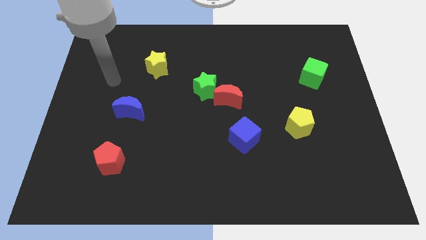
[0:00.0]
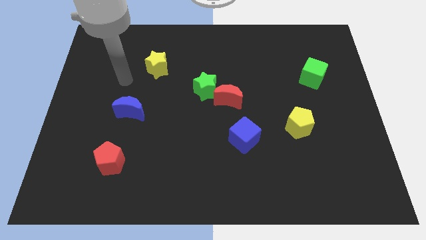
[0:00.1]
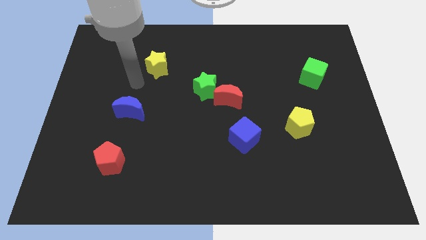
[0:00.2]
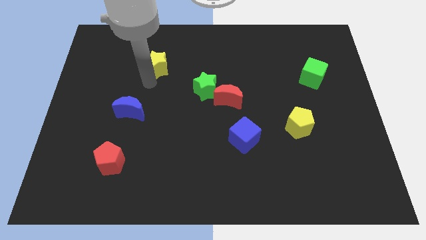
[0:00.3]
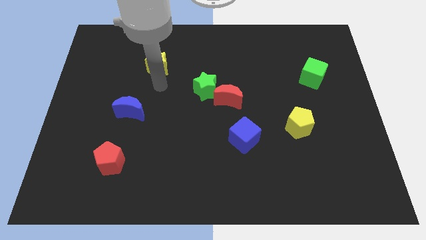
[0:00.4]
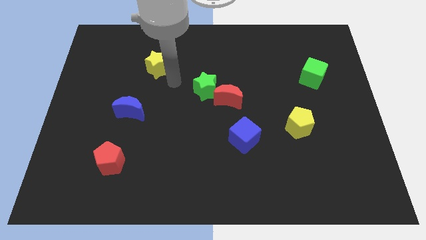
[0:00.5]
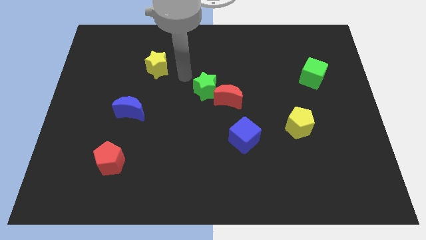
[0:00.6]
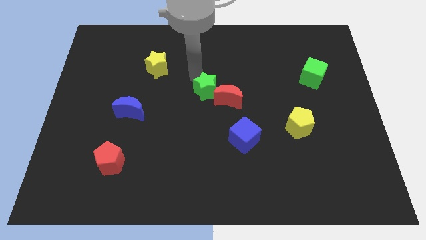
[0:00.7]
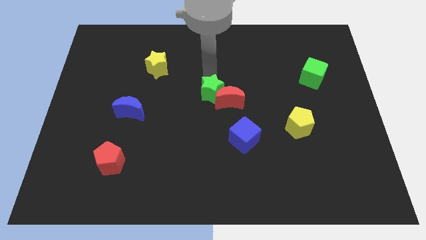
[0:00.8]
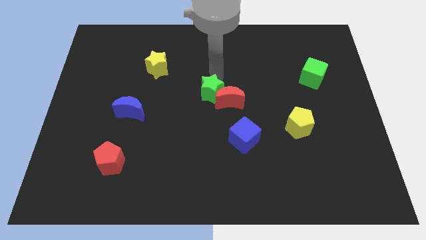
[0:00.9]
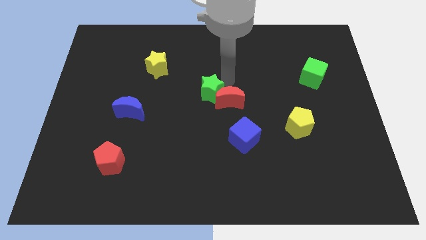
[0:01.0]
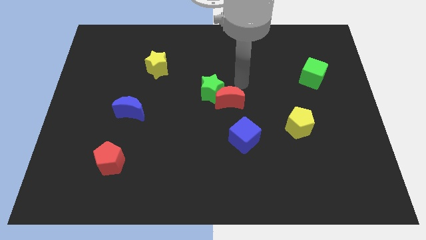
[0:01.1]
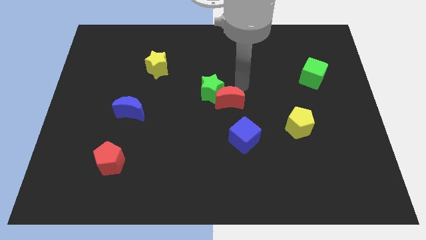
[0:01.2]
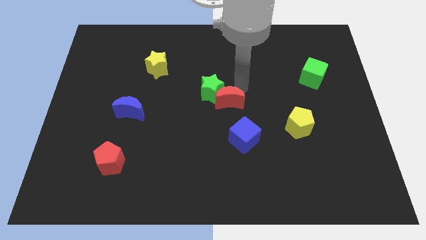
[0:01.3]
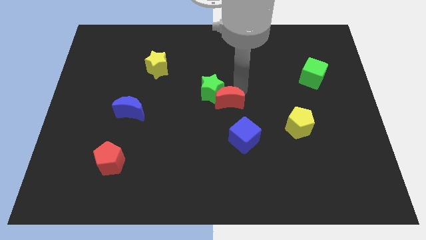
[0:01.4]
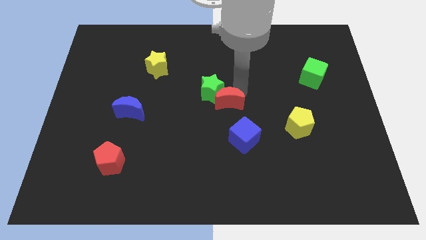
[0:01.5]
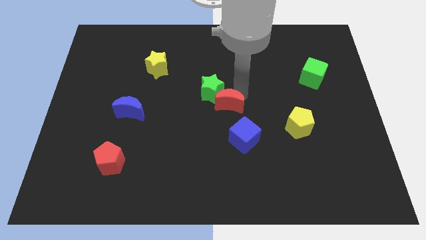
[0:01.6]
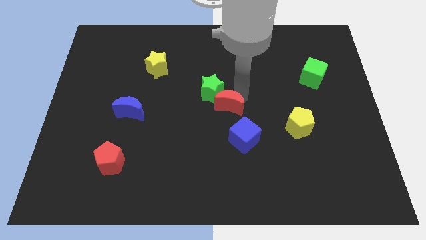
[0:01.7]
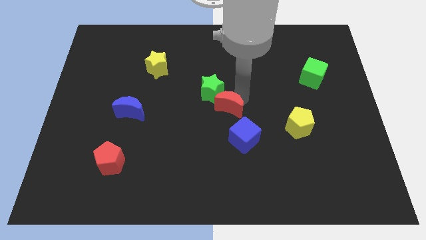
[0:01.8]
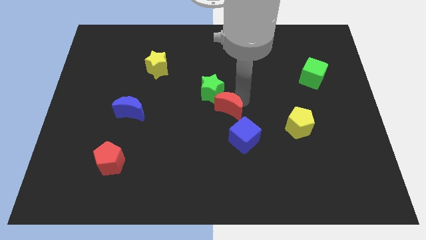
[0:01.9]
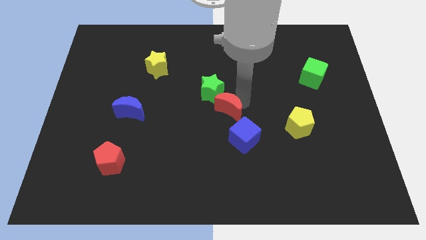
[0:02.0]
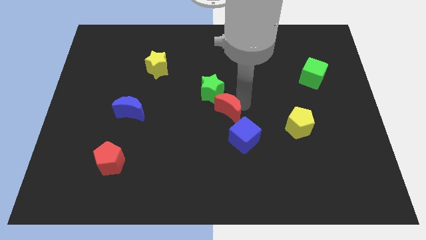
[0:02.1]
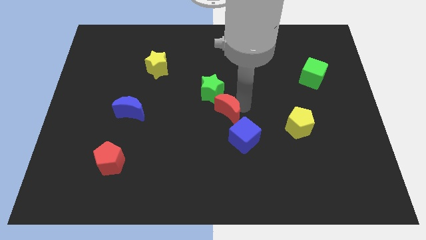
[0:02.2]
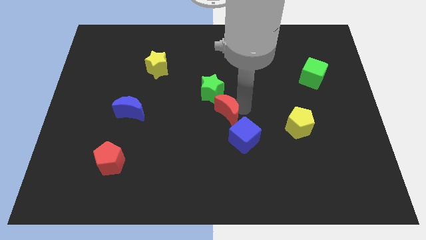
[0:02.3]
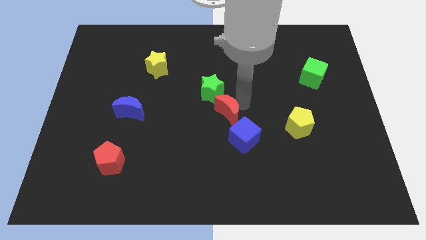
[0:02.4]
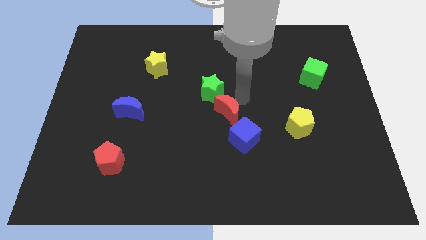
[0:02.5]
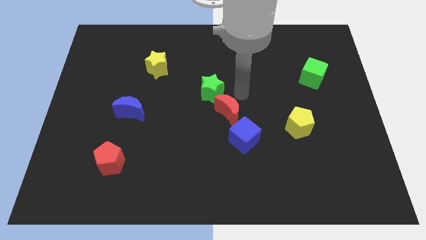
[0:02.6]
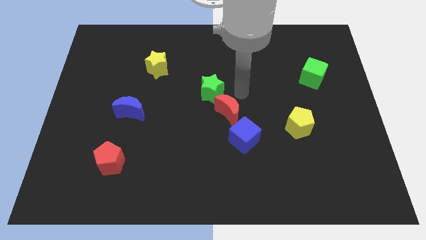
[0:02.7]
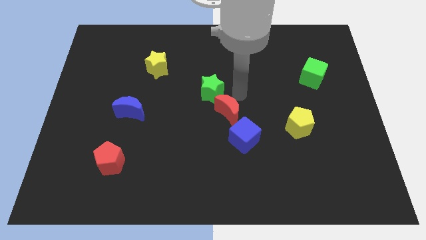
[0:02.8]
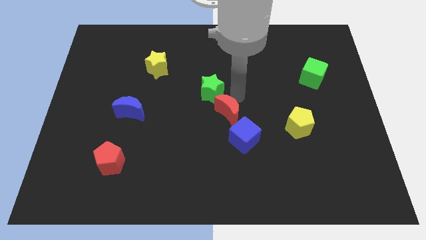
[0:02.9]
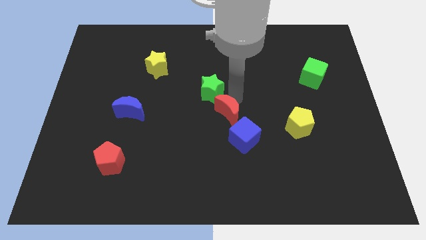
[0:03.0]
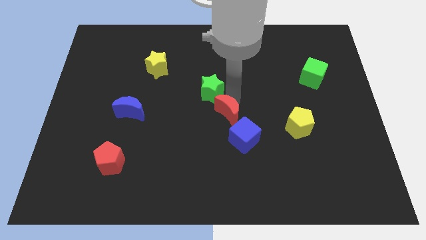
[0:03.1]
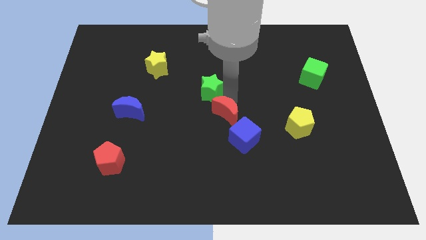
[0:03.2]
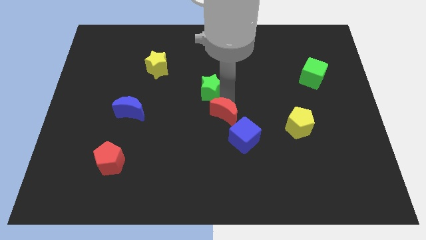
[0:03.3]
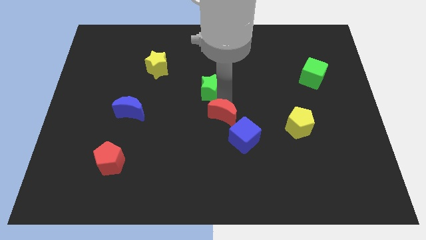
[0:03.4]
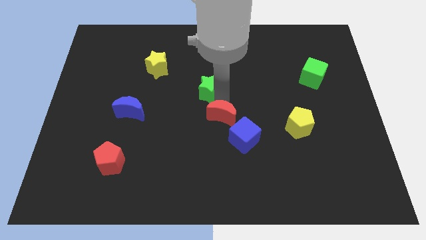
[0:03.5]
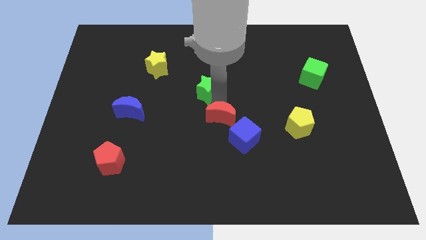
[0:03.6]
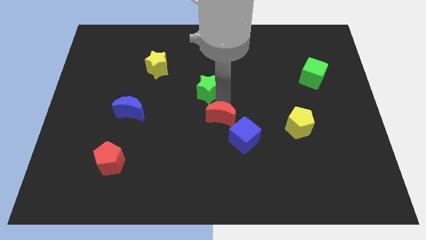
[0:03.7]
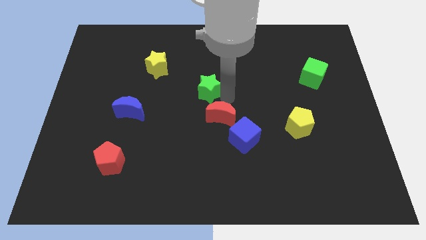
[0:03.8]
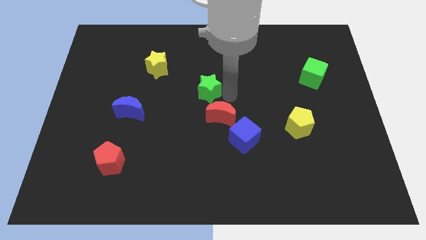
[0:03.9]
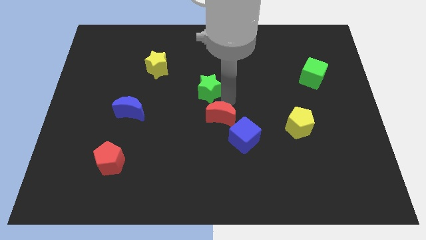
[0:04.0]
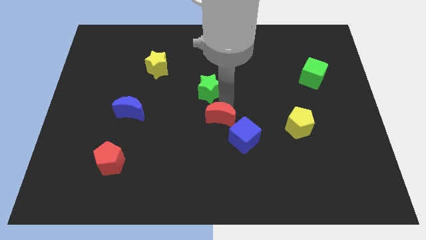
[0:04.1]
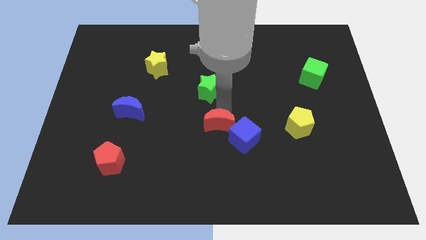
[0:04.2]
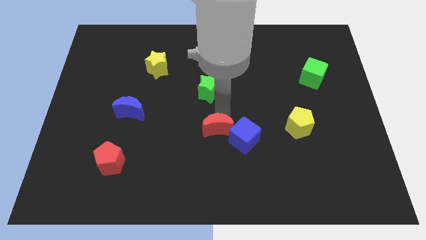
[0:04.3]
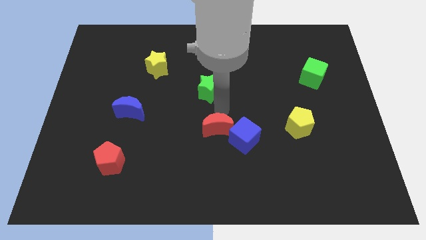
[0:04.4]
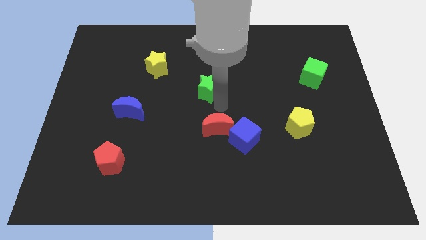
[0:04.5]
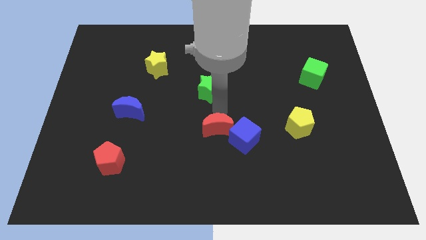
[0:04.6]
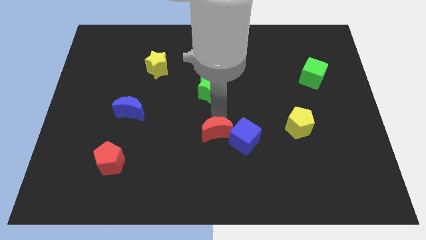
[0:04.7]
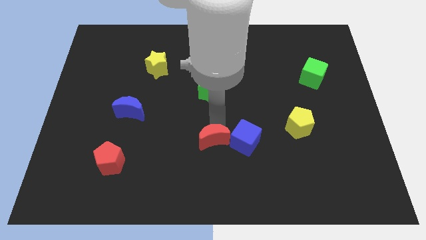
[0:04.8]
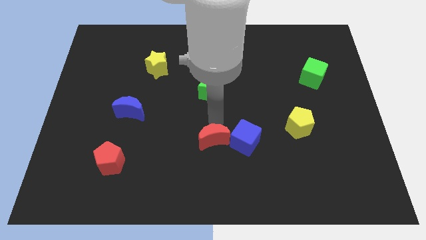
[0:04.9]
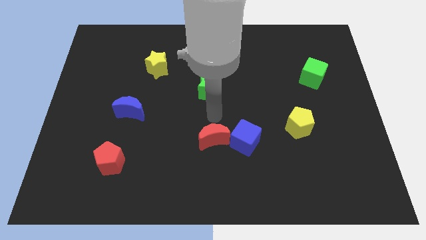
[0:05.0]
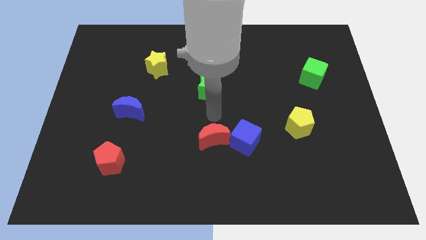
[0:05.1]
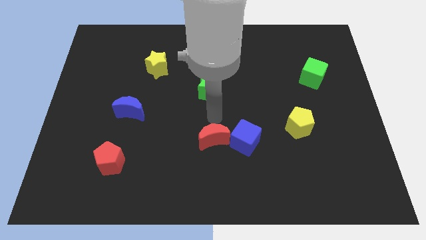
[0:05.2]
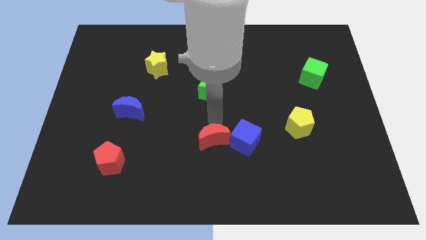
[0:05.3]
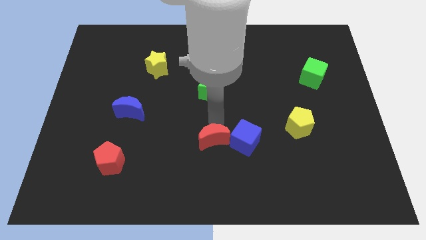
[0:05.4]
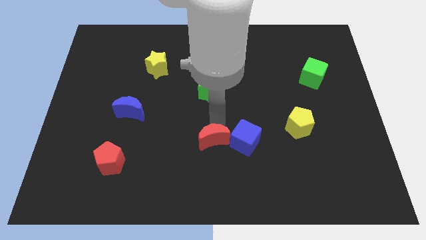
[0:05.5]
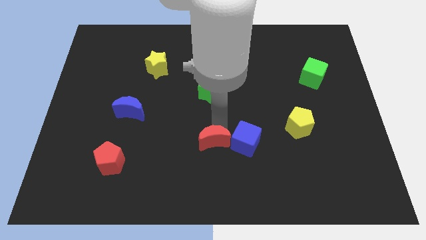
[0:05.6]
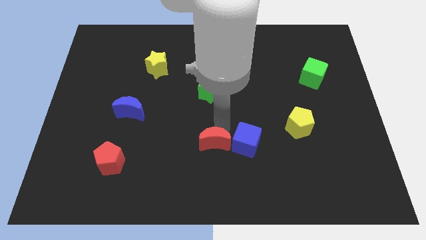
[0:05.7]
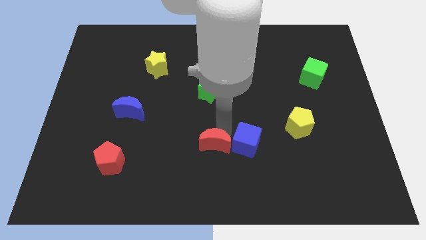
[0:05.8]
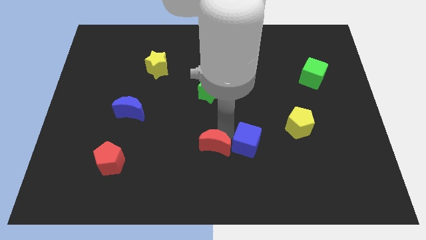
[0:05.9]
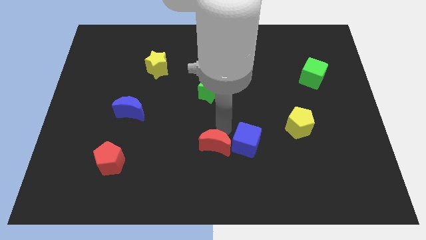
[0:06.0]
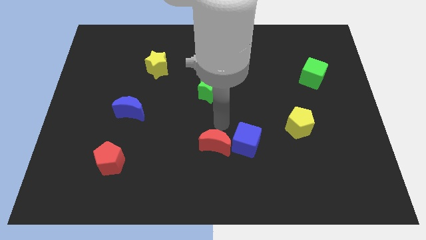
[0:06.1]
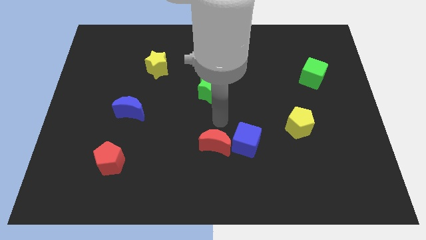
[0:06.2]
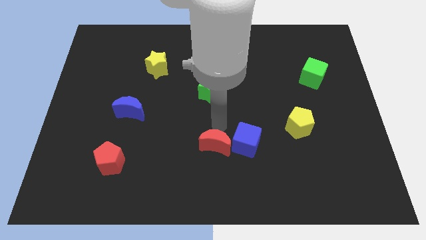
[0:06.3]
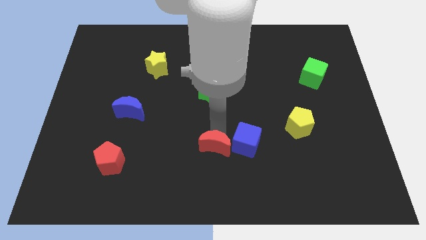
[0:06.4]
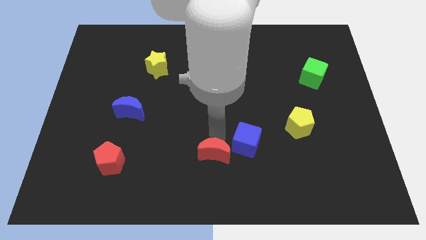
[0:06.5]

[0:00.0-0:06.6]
move the red moon to the bottom

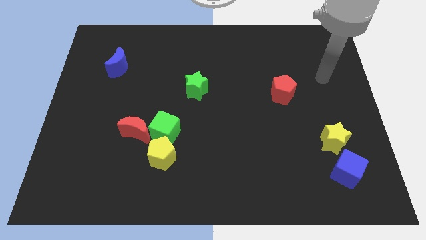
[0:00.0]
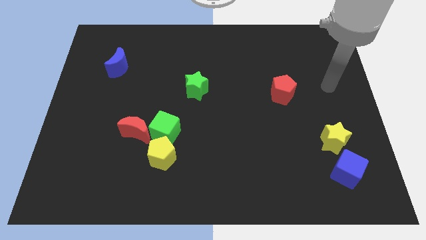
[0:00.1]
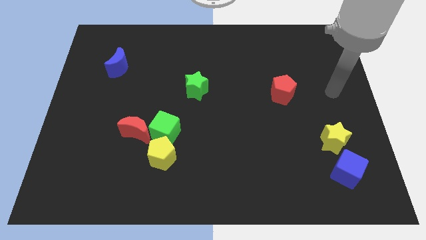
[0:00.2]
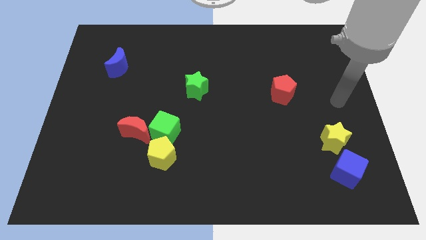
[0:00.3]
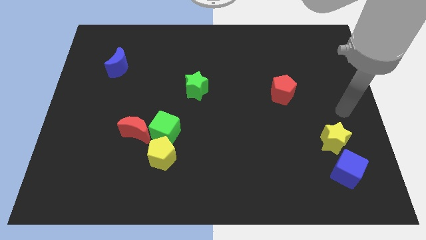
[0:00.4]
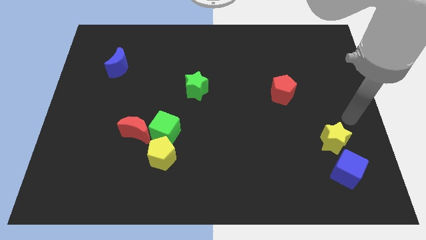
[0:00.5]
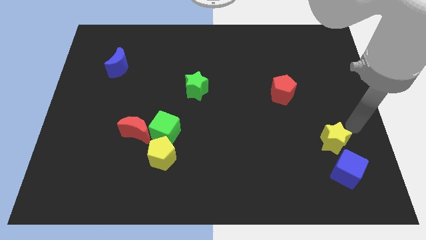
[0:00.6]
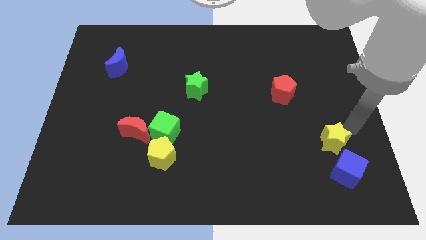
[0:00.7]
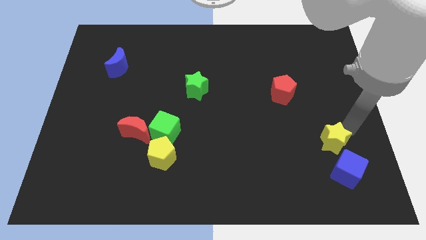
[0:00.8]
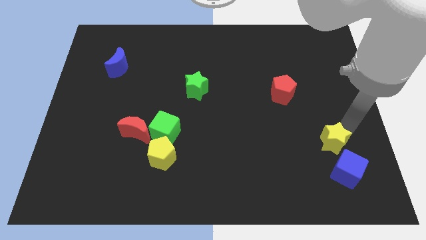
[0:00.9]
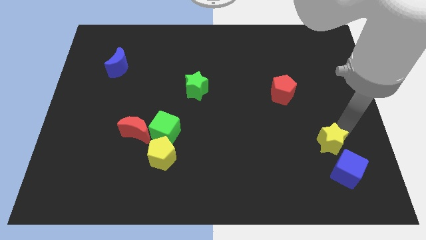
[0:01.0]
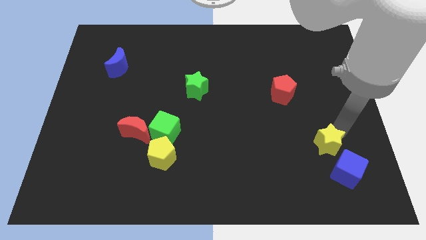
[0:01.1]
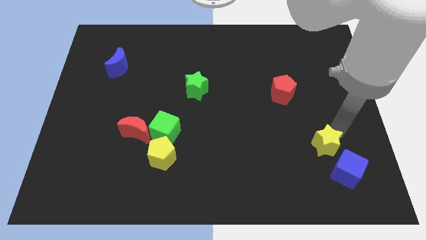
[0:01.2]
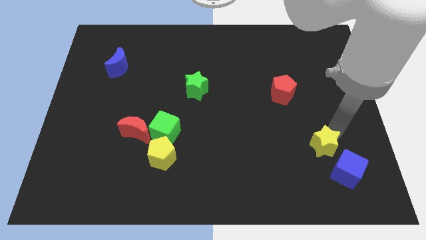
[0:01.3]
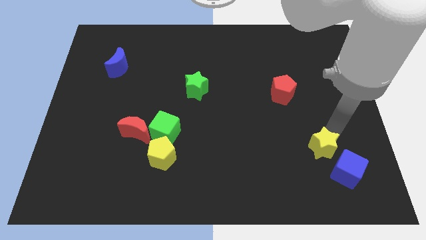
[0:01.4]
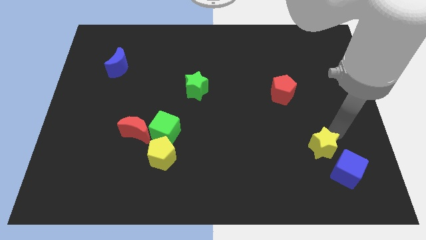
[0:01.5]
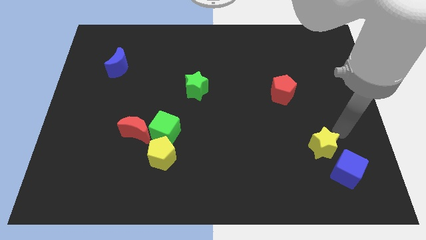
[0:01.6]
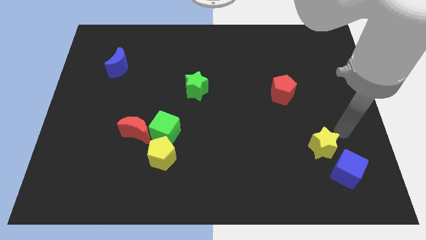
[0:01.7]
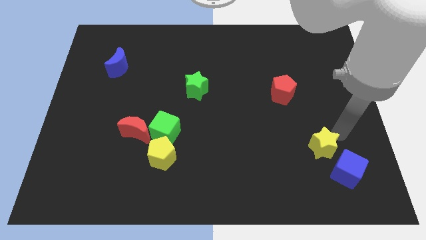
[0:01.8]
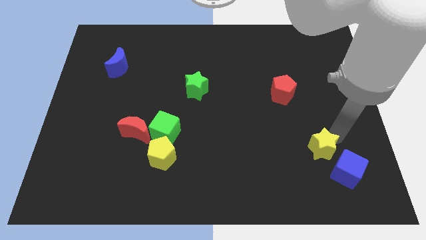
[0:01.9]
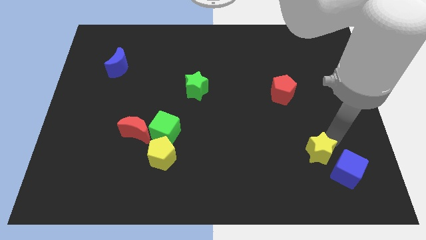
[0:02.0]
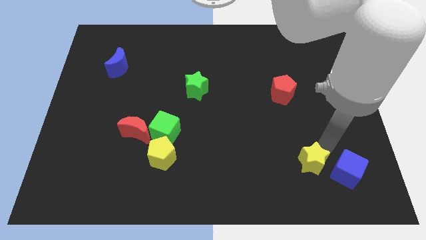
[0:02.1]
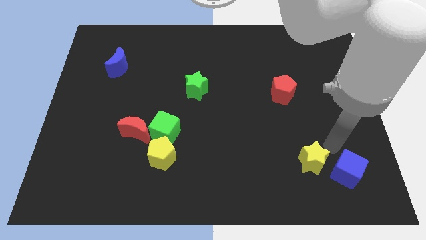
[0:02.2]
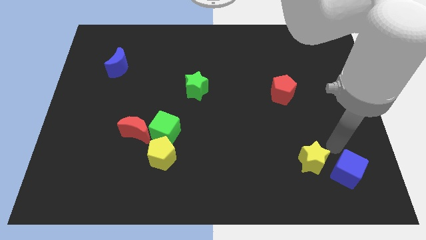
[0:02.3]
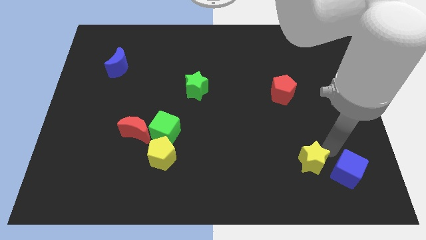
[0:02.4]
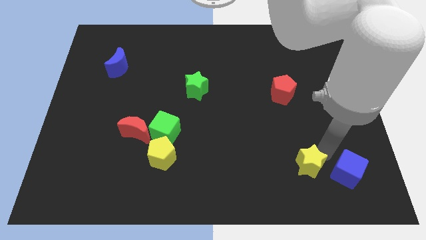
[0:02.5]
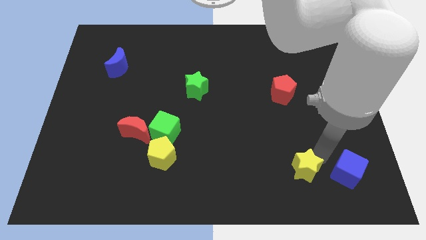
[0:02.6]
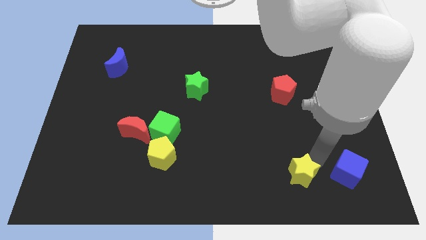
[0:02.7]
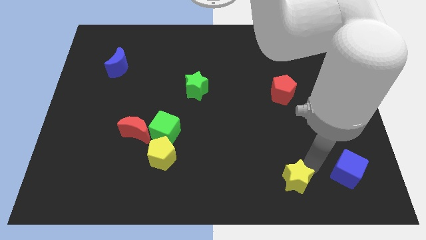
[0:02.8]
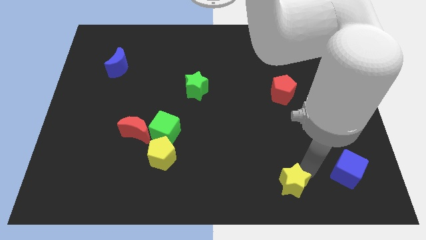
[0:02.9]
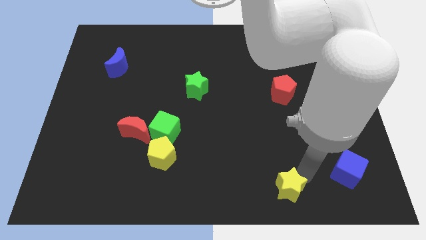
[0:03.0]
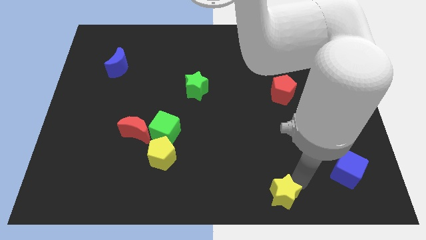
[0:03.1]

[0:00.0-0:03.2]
move the yellow star to the bottom side
